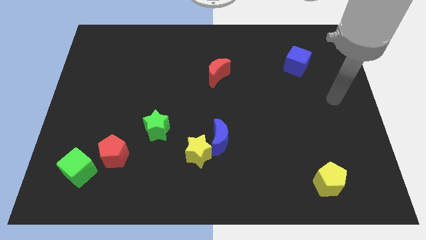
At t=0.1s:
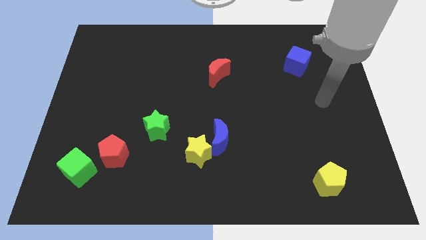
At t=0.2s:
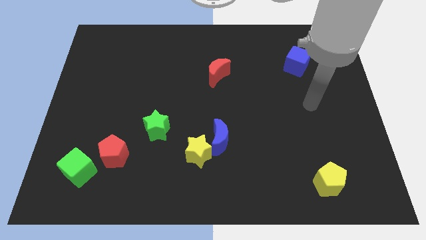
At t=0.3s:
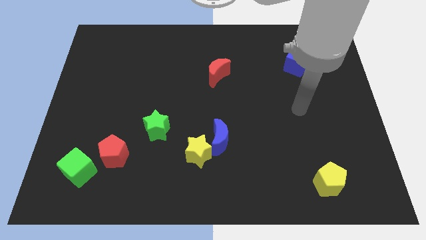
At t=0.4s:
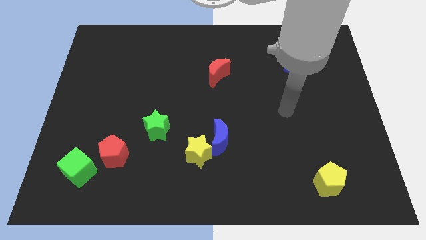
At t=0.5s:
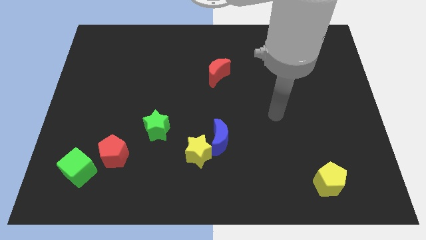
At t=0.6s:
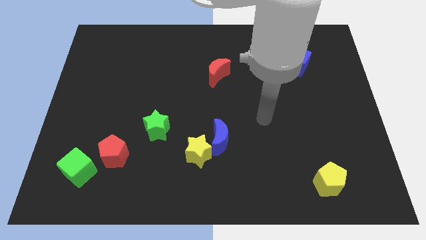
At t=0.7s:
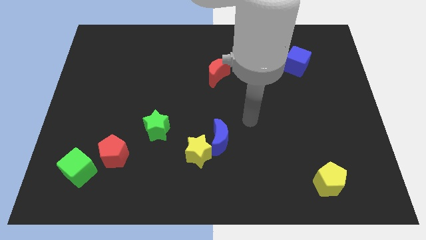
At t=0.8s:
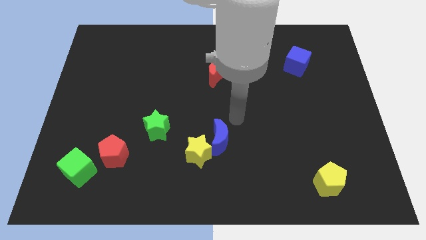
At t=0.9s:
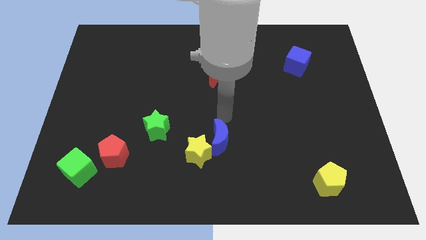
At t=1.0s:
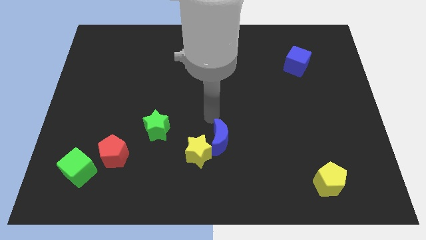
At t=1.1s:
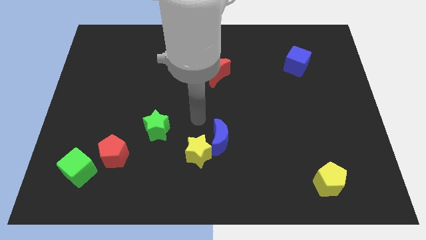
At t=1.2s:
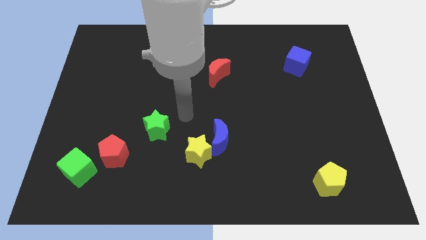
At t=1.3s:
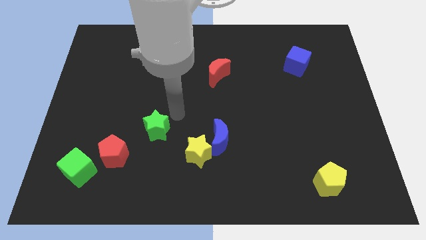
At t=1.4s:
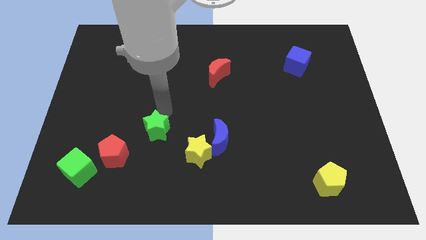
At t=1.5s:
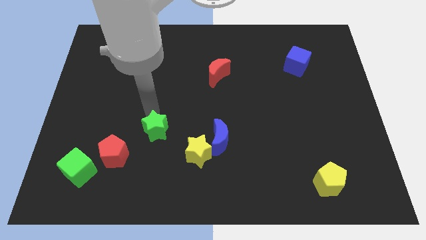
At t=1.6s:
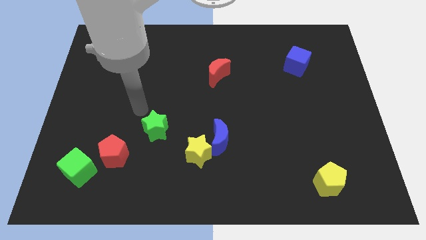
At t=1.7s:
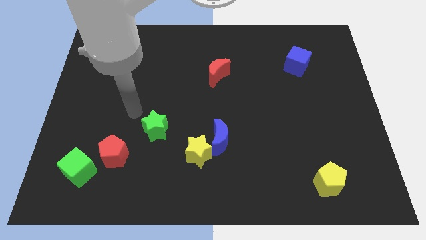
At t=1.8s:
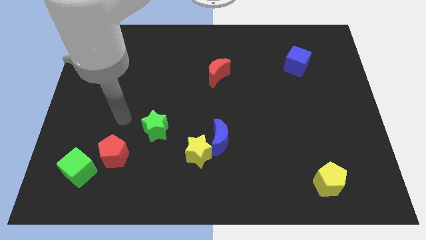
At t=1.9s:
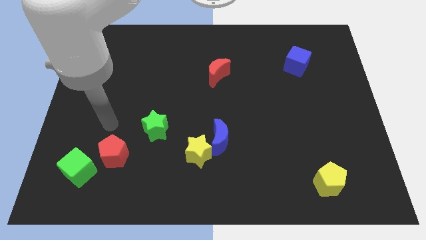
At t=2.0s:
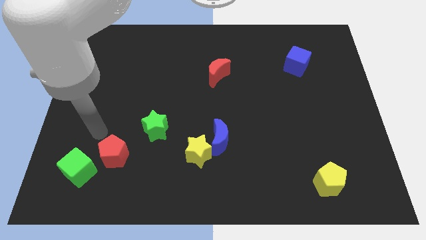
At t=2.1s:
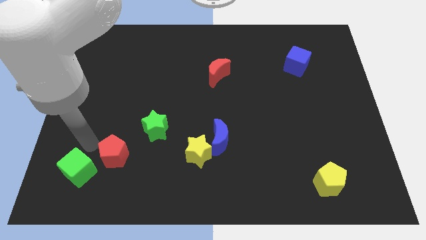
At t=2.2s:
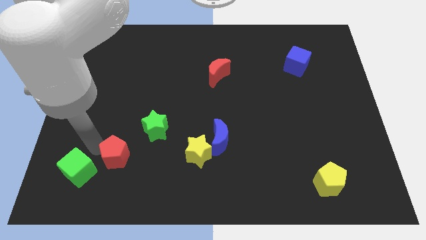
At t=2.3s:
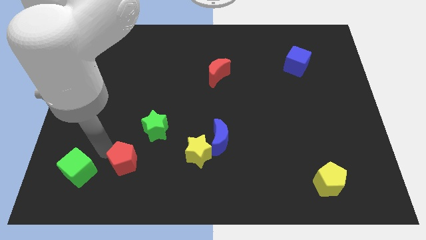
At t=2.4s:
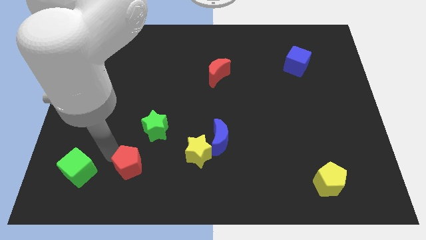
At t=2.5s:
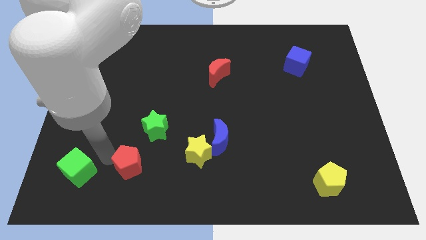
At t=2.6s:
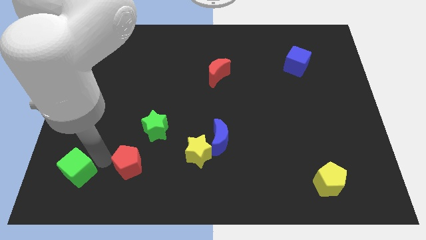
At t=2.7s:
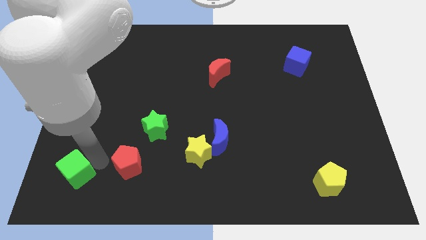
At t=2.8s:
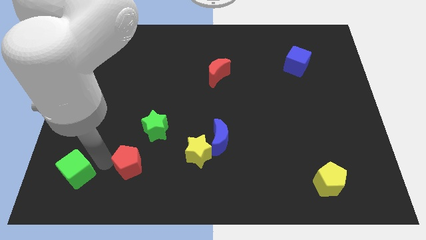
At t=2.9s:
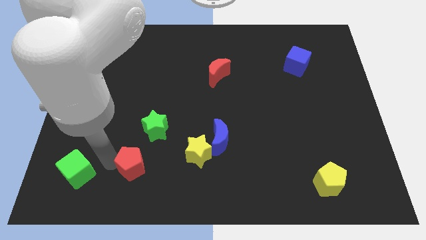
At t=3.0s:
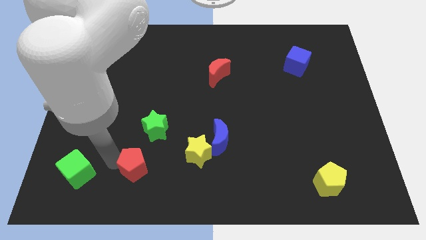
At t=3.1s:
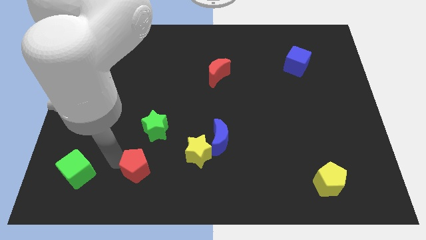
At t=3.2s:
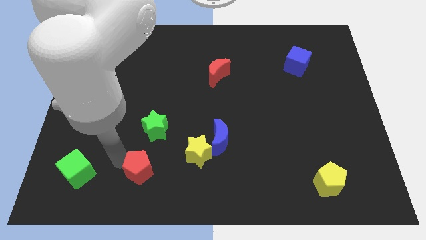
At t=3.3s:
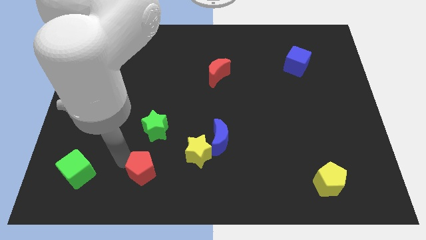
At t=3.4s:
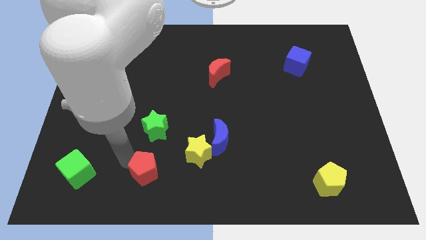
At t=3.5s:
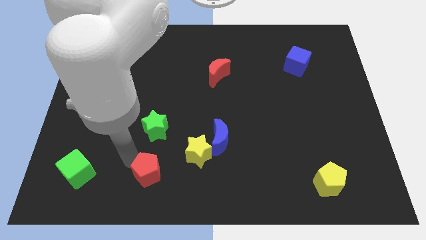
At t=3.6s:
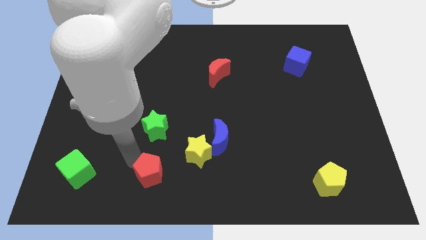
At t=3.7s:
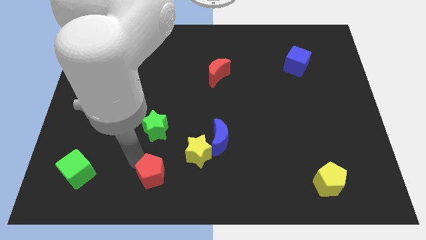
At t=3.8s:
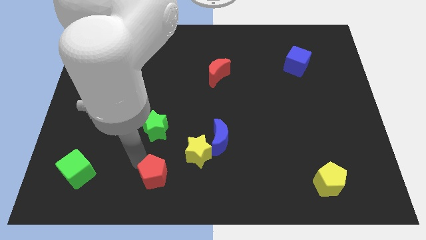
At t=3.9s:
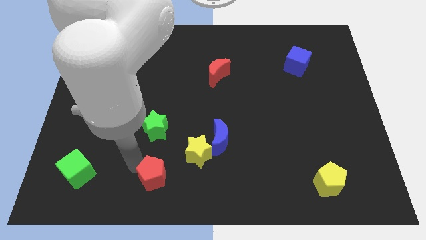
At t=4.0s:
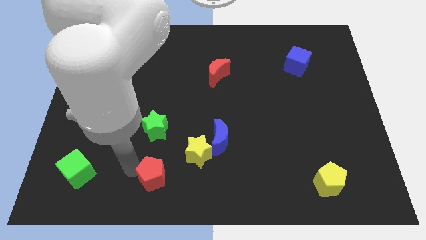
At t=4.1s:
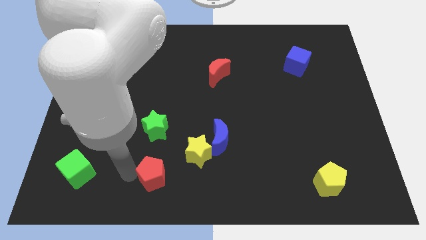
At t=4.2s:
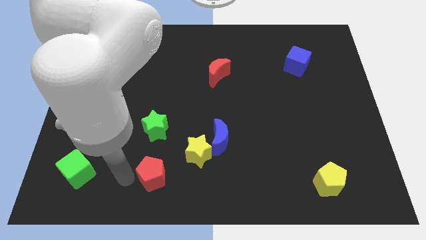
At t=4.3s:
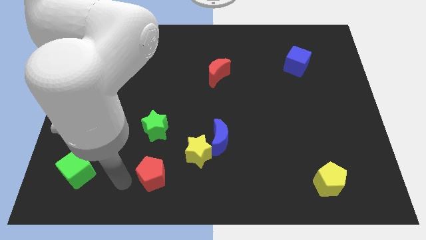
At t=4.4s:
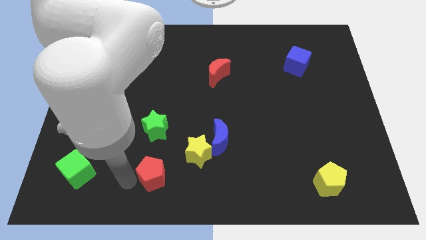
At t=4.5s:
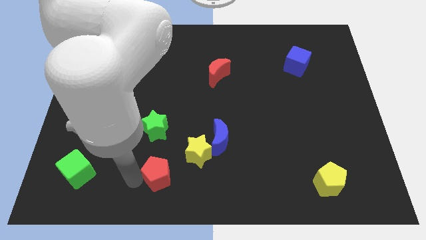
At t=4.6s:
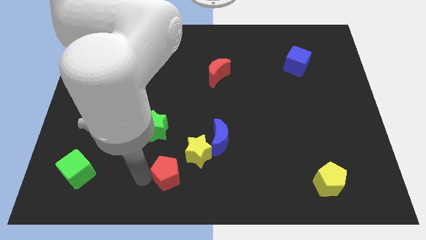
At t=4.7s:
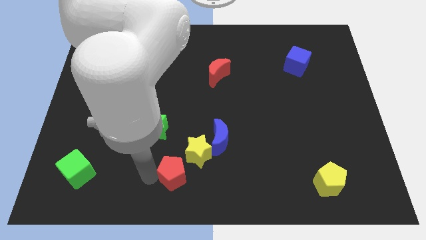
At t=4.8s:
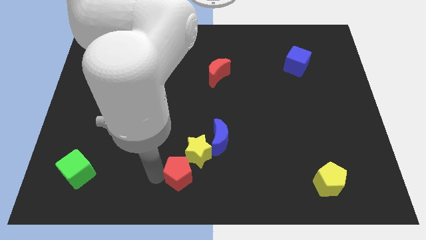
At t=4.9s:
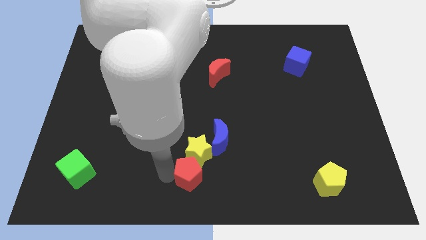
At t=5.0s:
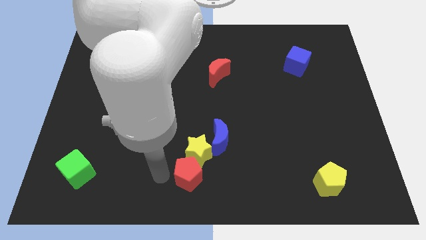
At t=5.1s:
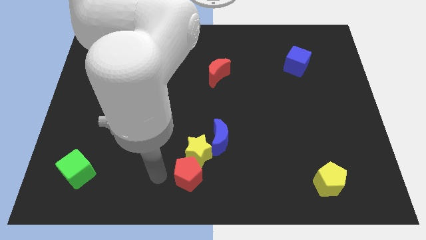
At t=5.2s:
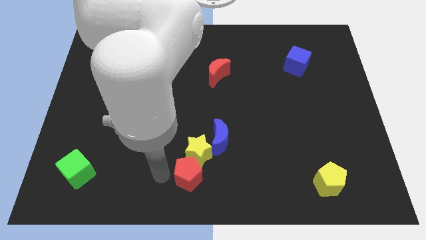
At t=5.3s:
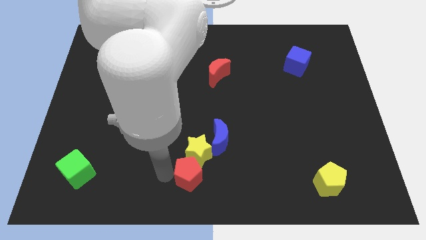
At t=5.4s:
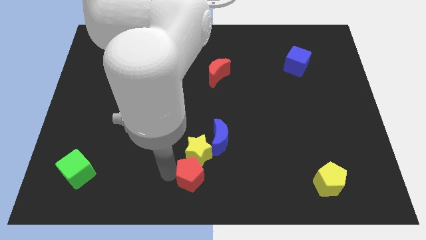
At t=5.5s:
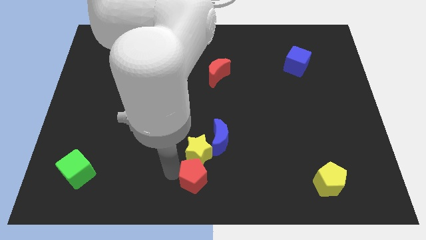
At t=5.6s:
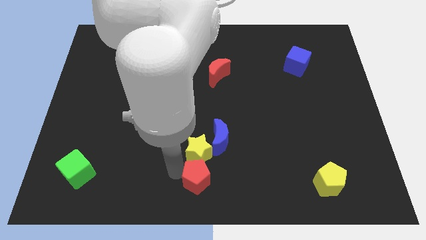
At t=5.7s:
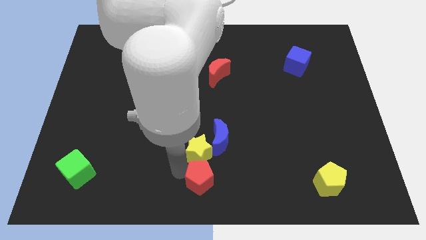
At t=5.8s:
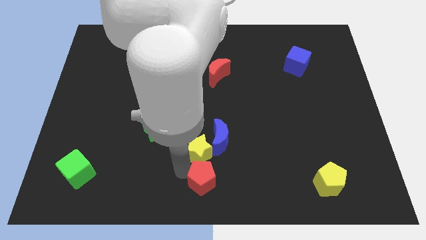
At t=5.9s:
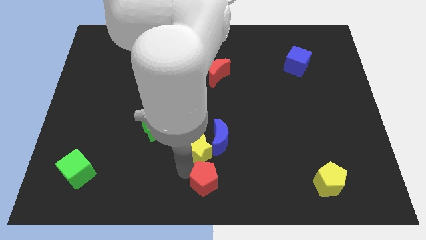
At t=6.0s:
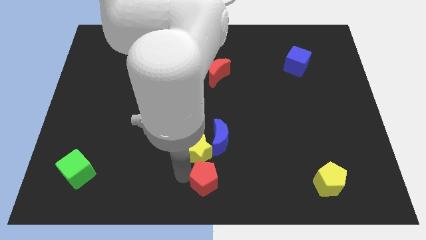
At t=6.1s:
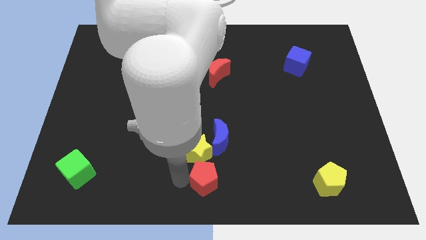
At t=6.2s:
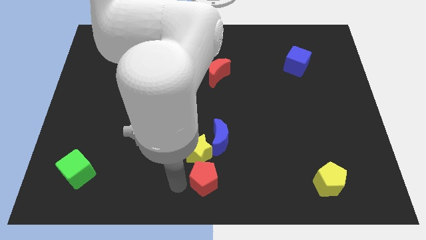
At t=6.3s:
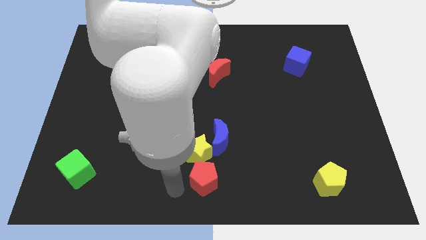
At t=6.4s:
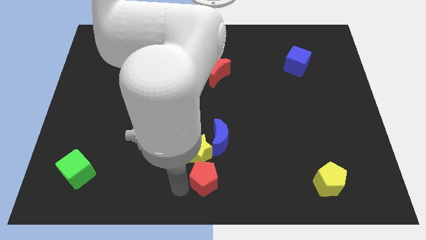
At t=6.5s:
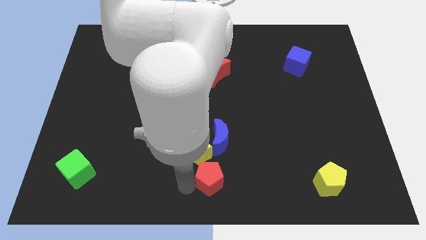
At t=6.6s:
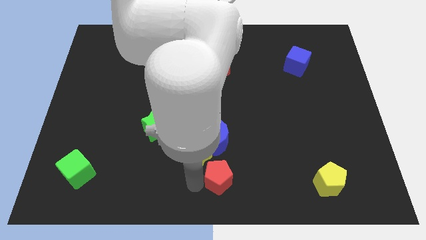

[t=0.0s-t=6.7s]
push the red pentagon to the right

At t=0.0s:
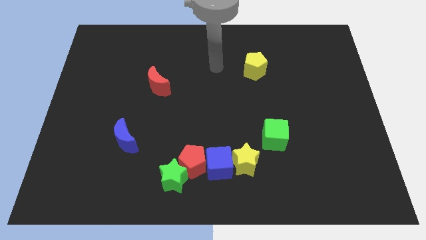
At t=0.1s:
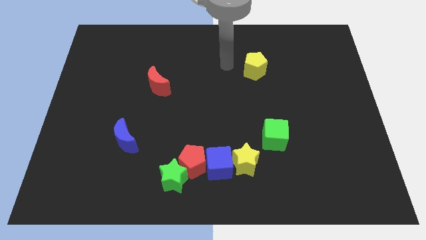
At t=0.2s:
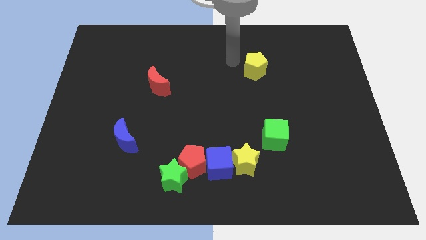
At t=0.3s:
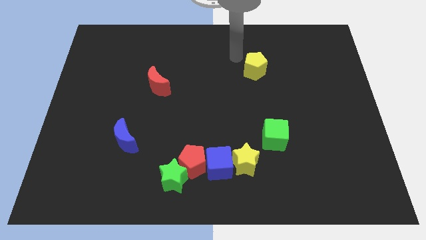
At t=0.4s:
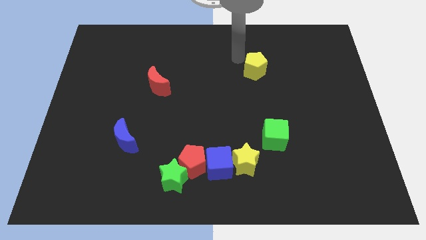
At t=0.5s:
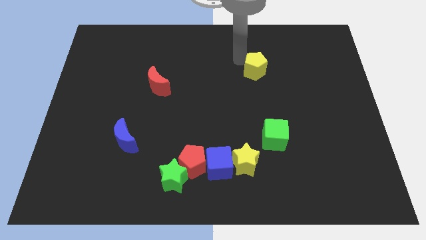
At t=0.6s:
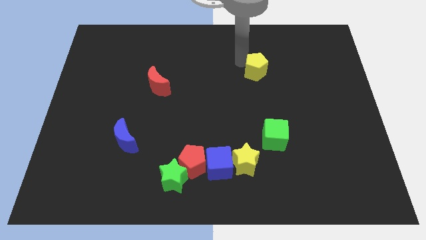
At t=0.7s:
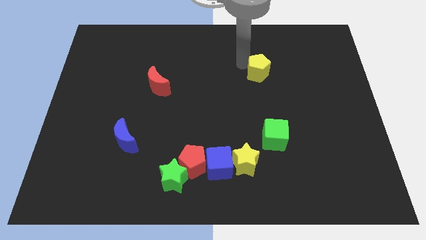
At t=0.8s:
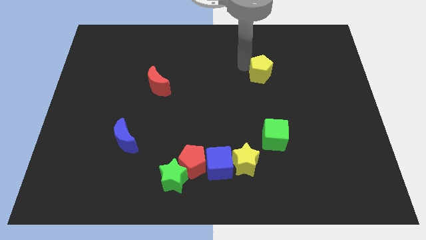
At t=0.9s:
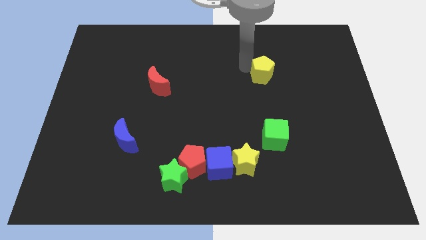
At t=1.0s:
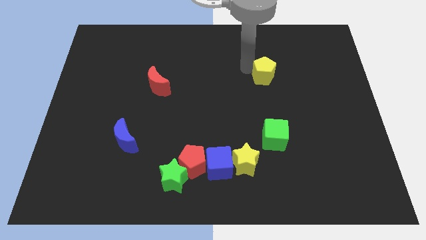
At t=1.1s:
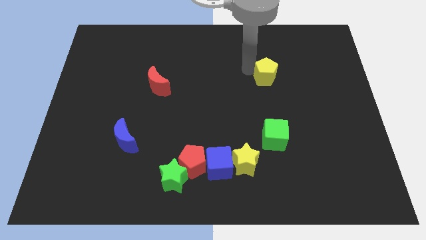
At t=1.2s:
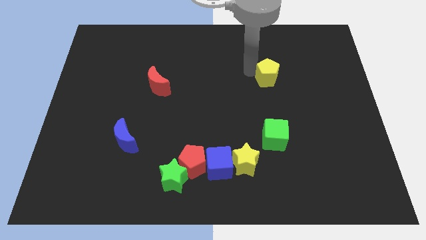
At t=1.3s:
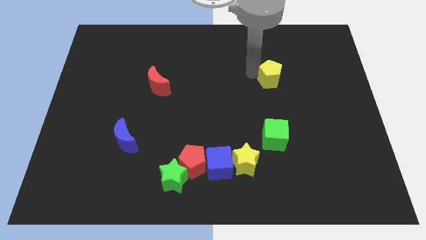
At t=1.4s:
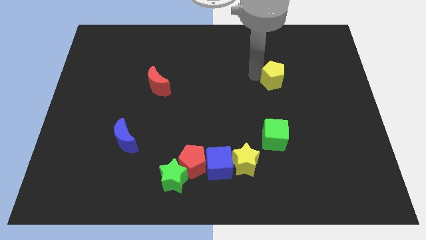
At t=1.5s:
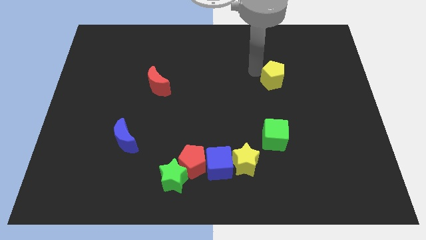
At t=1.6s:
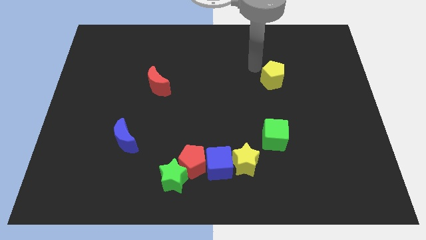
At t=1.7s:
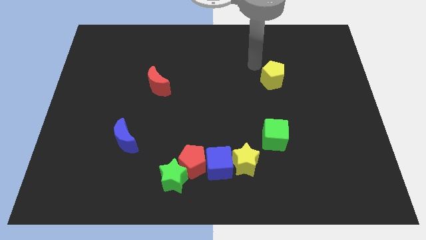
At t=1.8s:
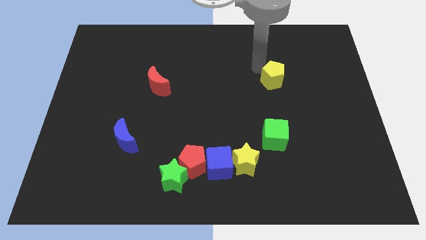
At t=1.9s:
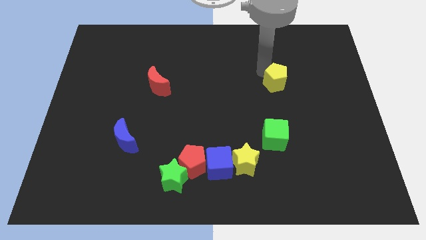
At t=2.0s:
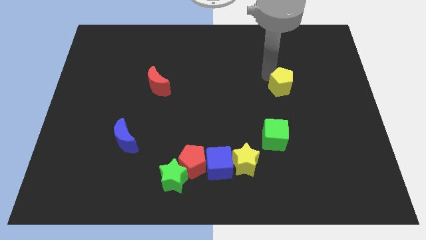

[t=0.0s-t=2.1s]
slightly slide the yellow pentagon diagonally downwards and right
